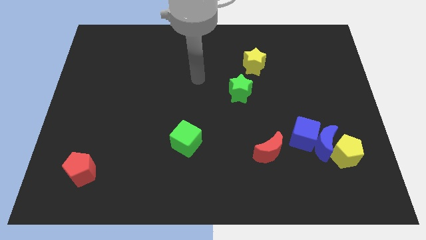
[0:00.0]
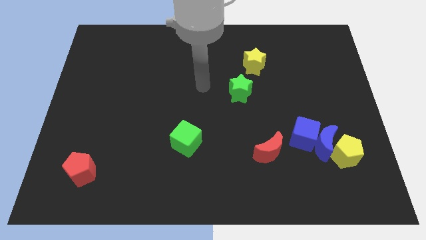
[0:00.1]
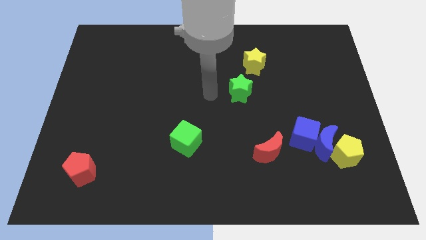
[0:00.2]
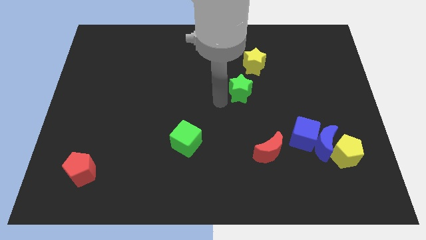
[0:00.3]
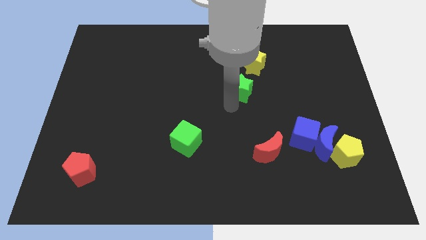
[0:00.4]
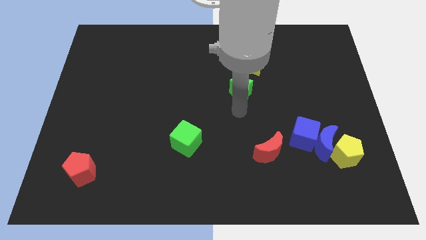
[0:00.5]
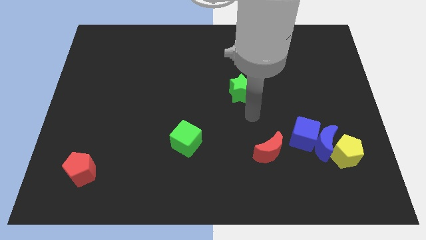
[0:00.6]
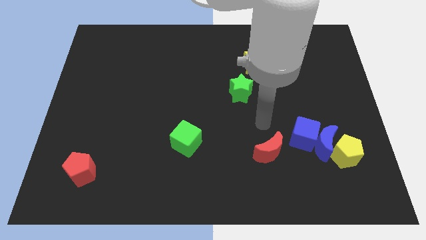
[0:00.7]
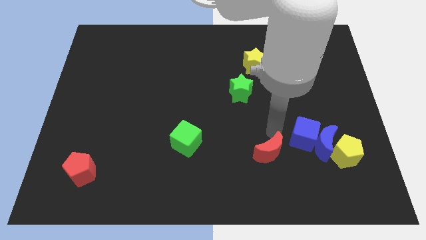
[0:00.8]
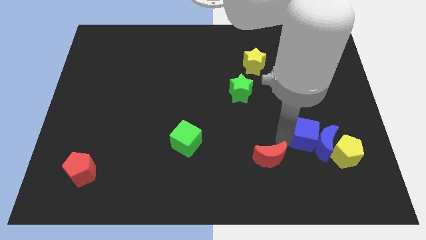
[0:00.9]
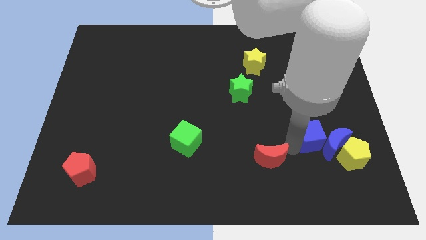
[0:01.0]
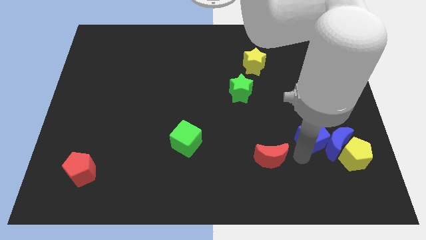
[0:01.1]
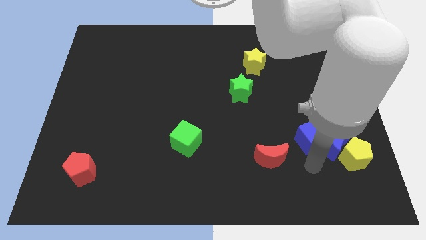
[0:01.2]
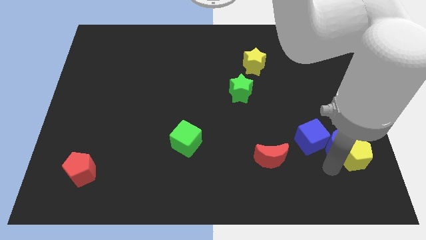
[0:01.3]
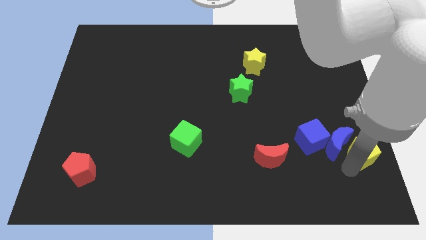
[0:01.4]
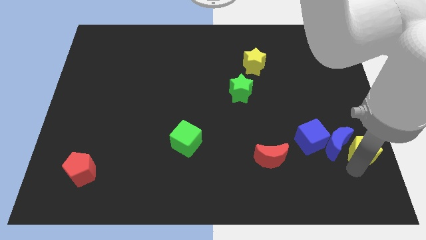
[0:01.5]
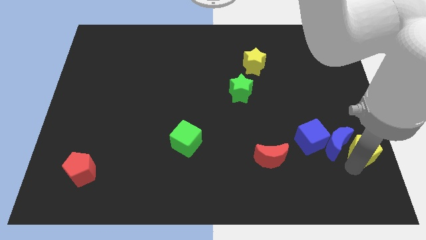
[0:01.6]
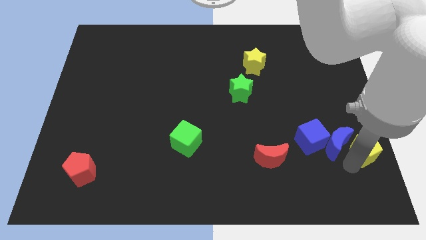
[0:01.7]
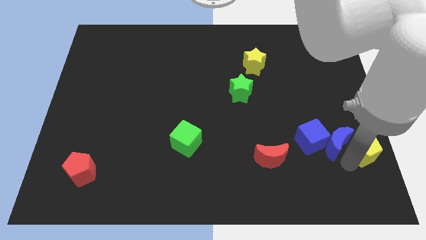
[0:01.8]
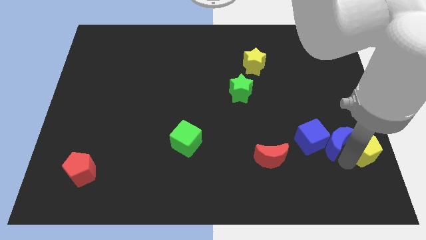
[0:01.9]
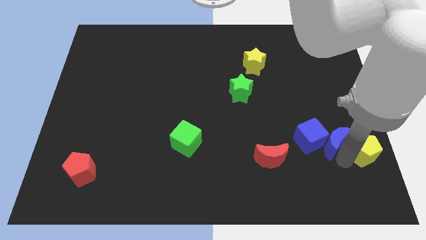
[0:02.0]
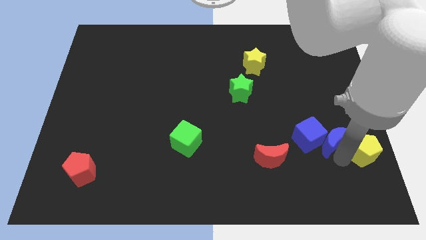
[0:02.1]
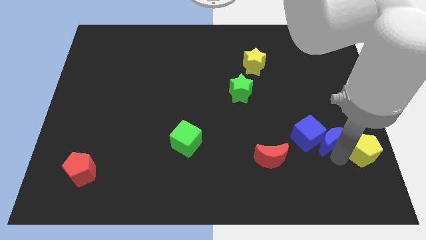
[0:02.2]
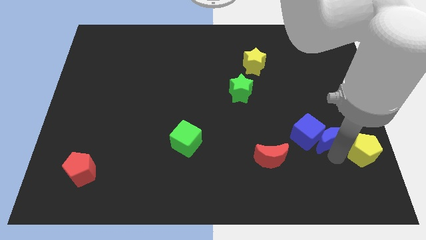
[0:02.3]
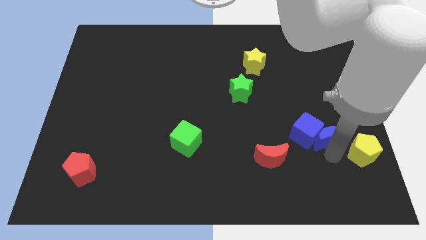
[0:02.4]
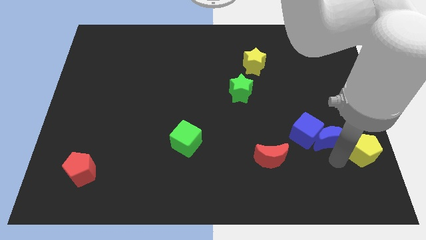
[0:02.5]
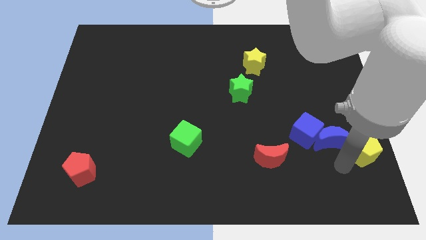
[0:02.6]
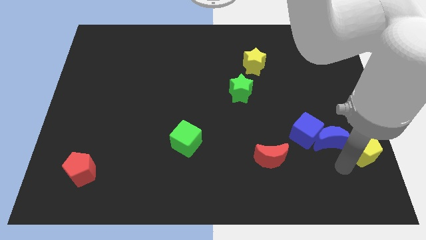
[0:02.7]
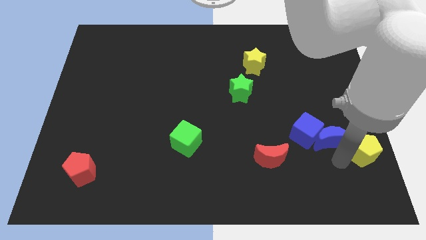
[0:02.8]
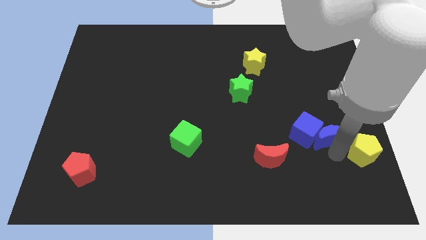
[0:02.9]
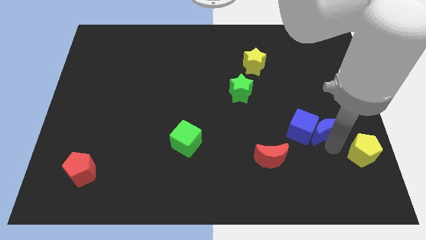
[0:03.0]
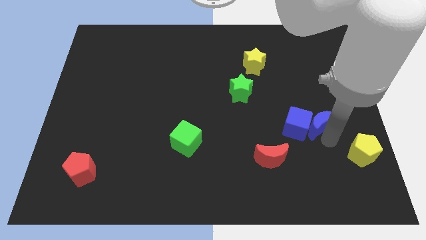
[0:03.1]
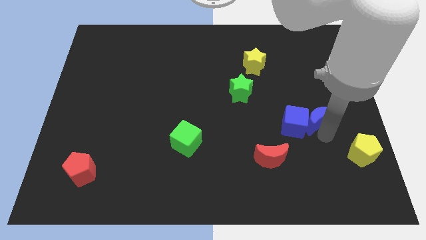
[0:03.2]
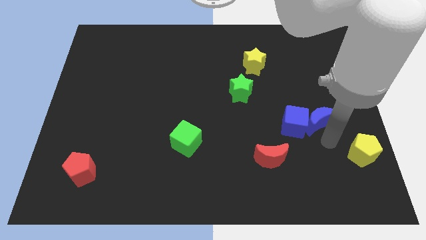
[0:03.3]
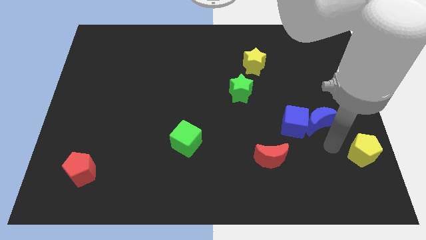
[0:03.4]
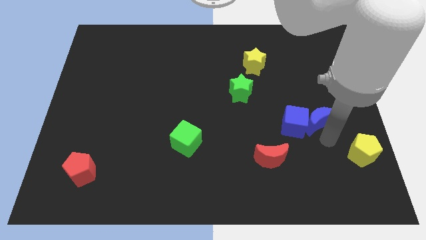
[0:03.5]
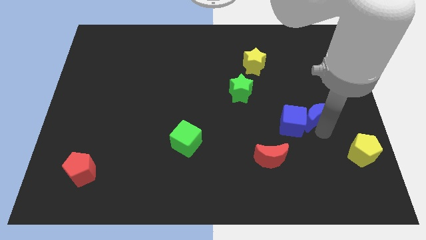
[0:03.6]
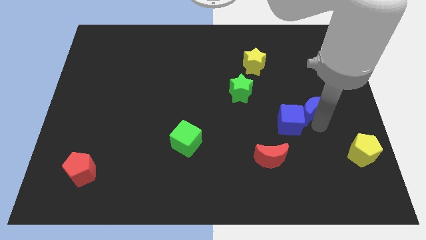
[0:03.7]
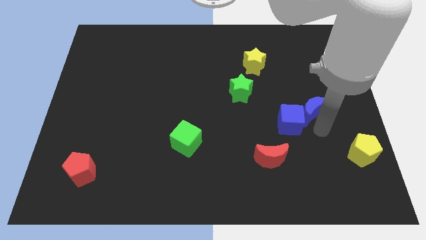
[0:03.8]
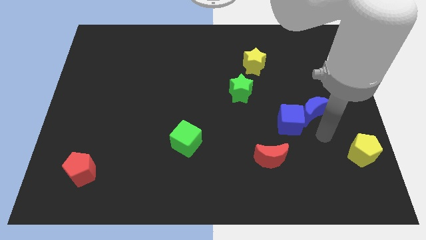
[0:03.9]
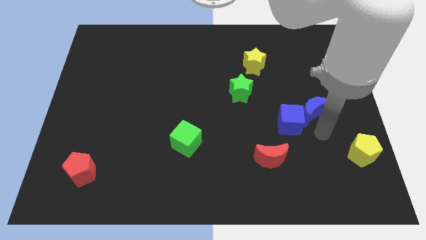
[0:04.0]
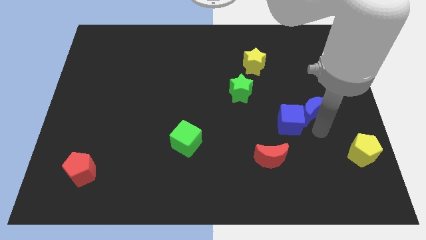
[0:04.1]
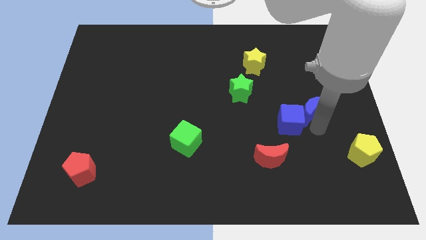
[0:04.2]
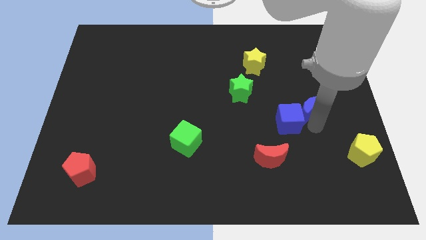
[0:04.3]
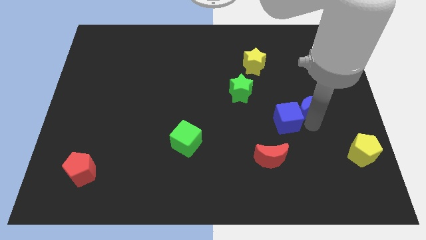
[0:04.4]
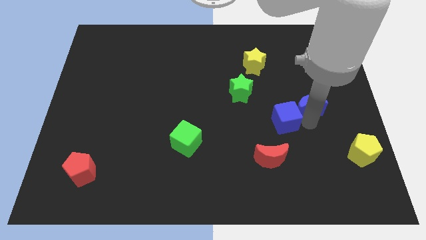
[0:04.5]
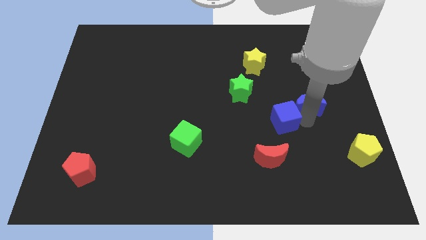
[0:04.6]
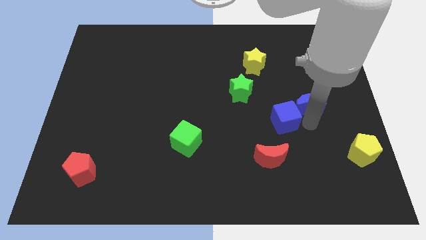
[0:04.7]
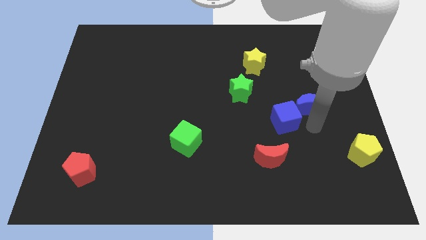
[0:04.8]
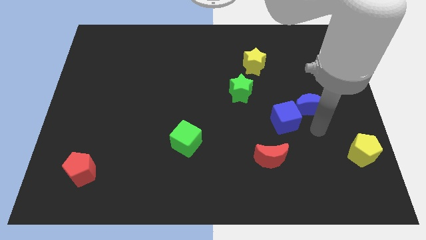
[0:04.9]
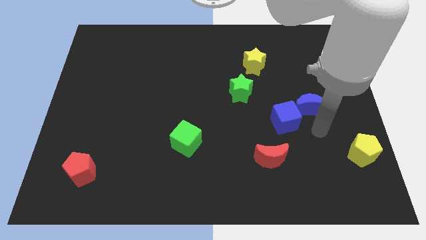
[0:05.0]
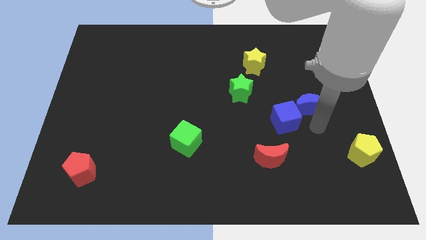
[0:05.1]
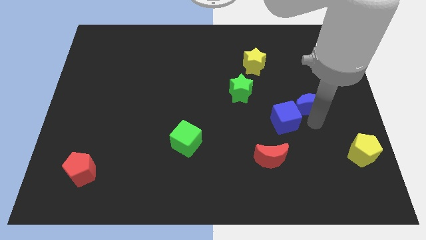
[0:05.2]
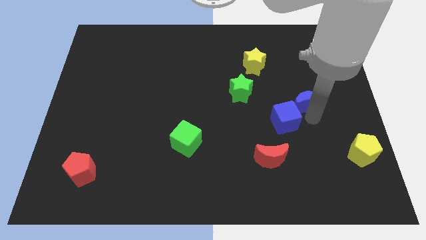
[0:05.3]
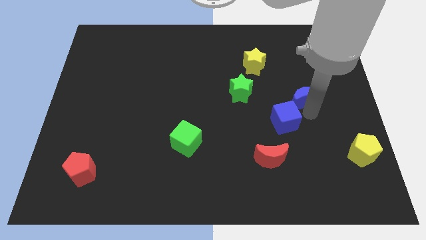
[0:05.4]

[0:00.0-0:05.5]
separate the blue moon from the blue cube and yellow pentagon

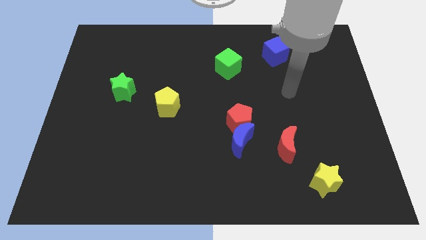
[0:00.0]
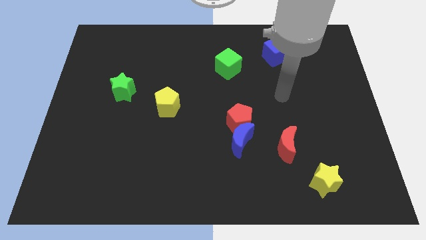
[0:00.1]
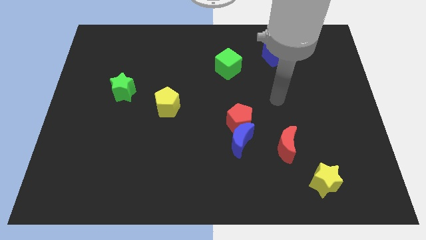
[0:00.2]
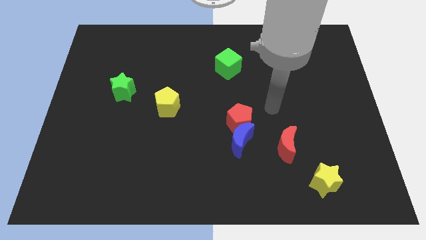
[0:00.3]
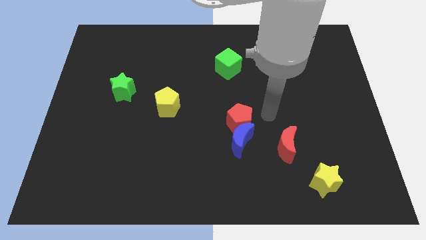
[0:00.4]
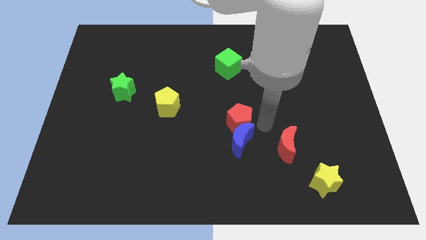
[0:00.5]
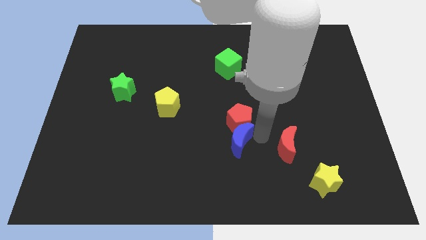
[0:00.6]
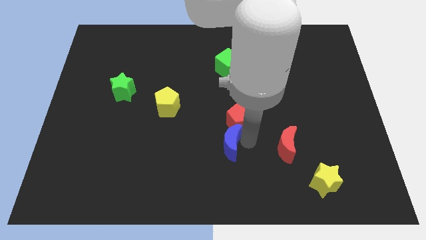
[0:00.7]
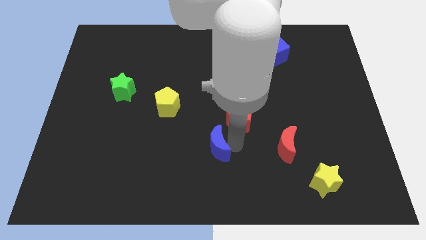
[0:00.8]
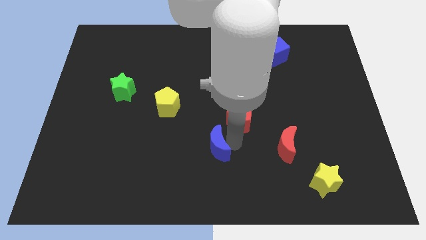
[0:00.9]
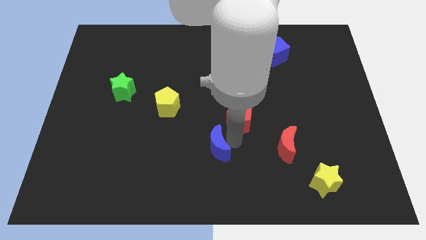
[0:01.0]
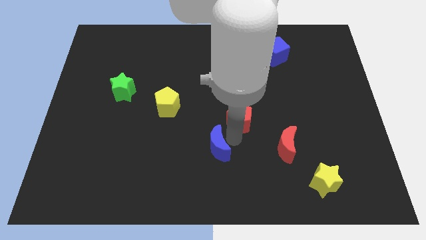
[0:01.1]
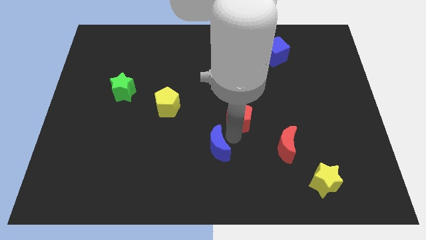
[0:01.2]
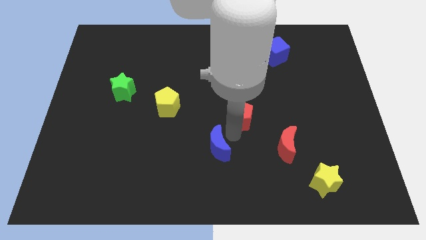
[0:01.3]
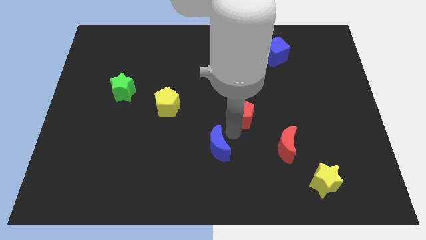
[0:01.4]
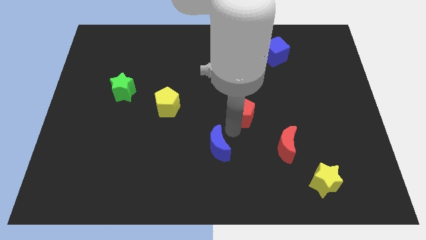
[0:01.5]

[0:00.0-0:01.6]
move the red pentagon away from the blue moon

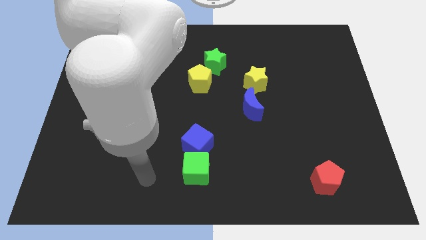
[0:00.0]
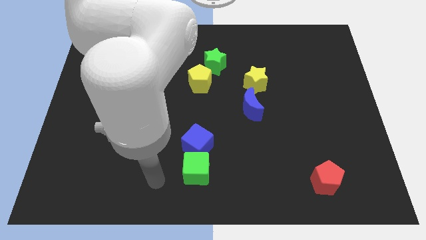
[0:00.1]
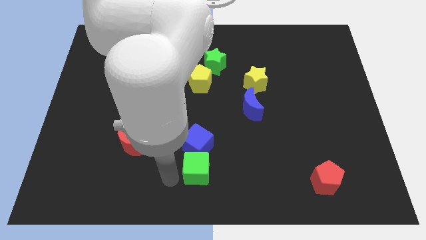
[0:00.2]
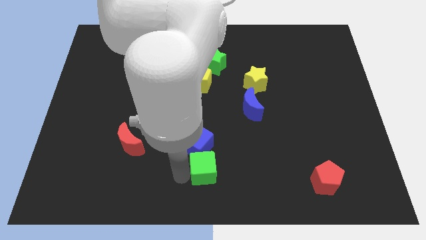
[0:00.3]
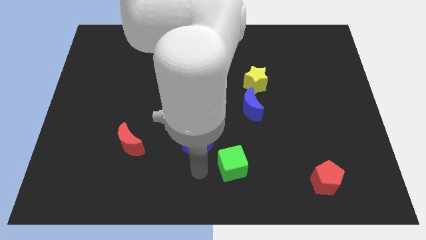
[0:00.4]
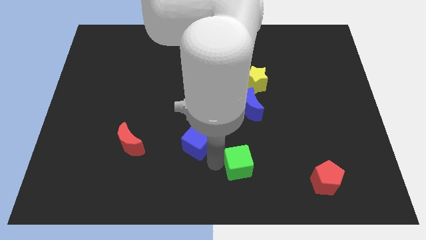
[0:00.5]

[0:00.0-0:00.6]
move the blue cube away from the green cube

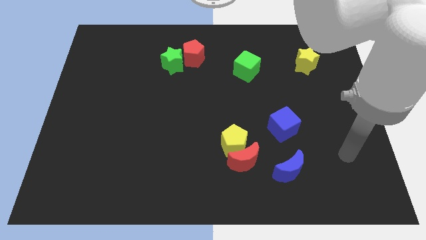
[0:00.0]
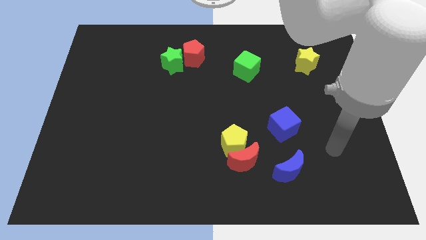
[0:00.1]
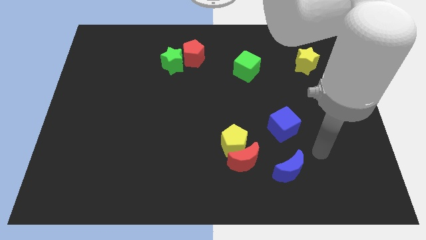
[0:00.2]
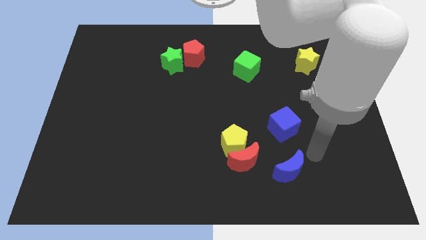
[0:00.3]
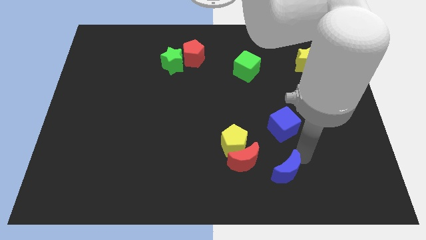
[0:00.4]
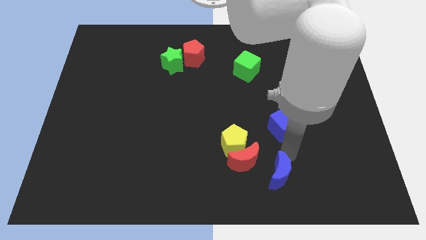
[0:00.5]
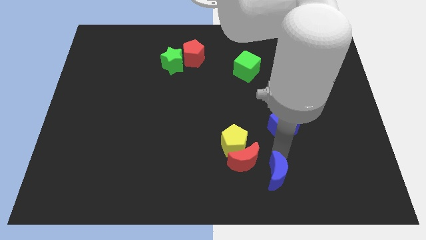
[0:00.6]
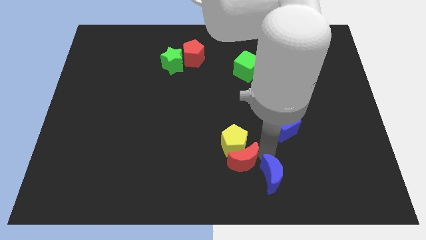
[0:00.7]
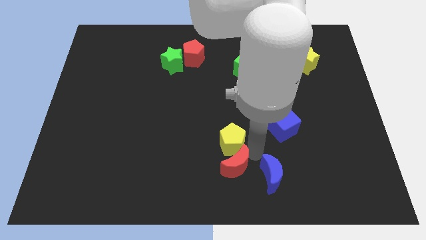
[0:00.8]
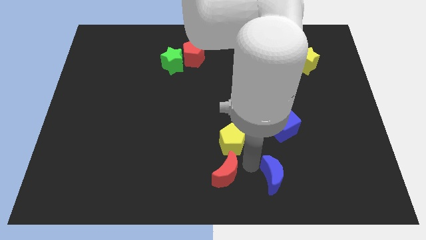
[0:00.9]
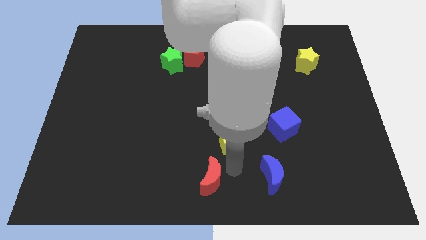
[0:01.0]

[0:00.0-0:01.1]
separate the yellow pentagon from the red moon

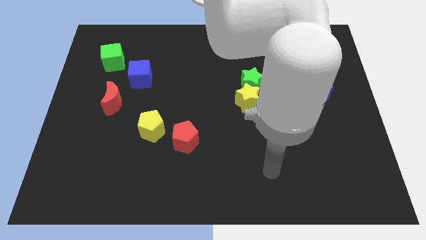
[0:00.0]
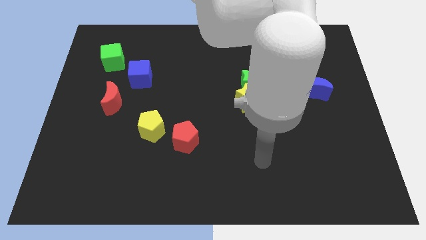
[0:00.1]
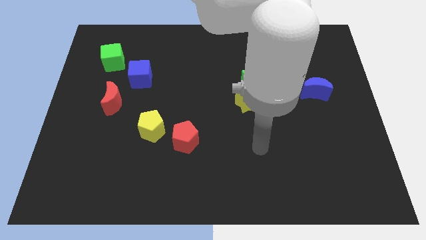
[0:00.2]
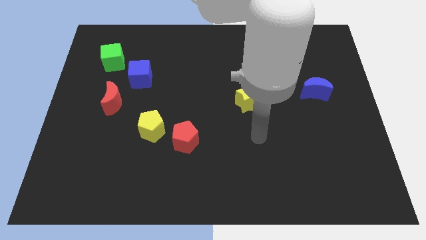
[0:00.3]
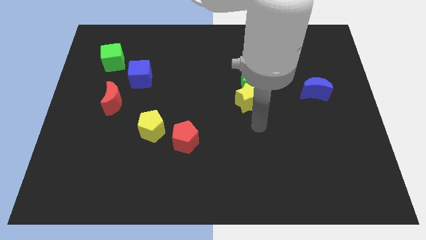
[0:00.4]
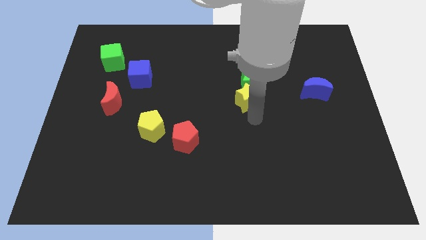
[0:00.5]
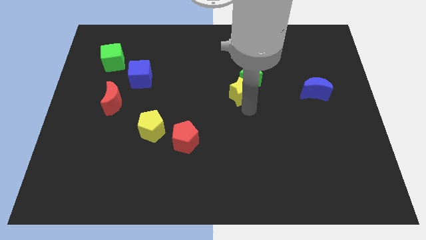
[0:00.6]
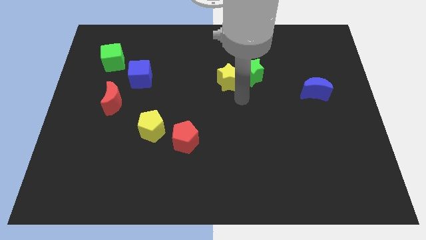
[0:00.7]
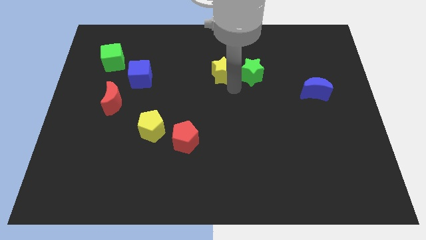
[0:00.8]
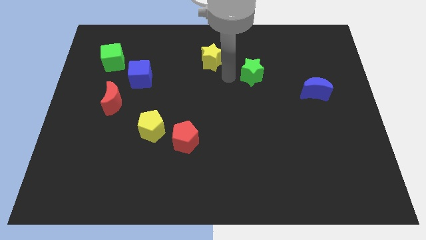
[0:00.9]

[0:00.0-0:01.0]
pull the green star apart from the yellow star
